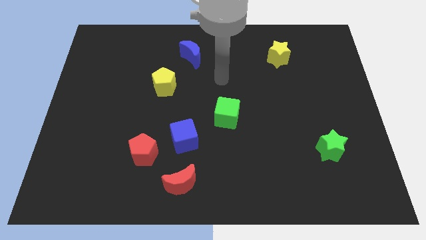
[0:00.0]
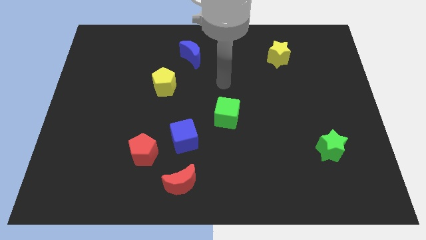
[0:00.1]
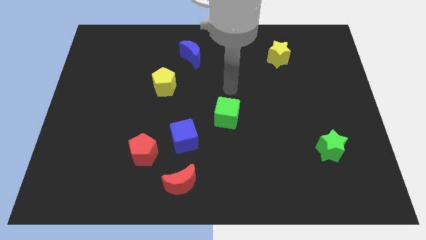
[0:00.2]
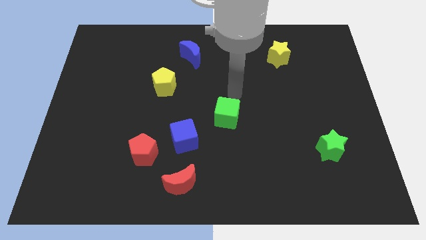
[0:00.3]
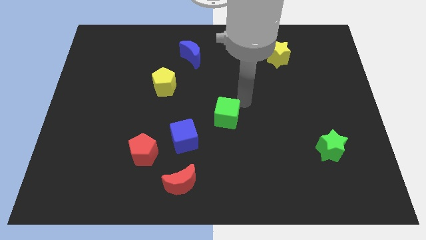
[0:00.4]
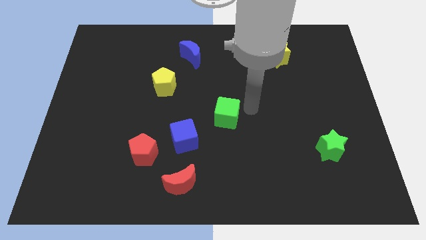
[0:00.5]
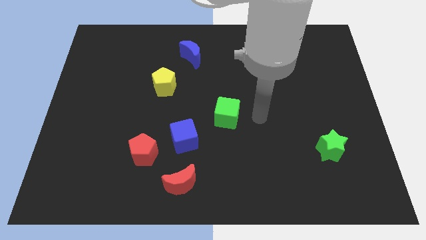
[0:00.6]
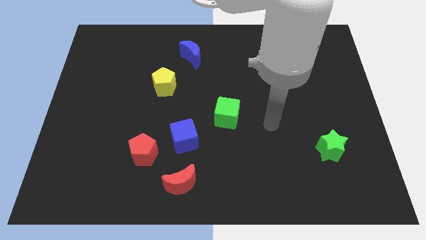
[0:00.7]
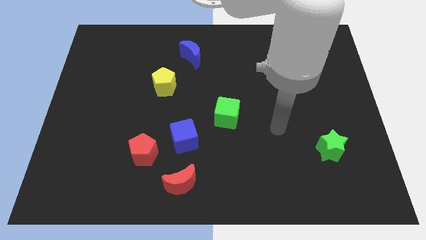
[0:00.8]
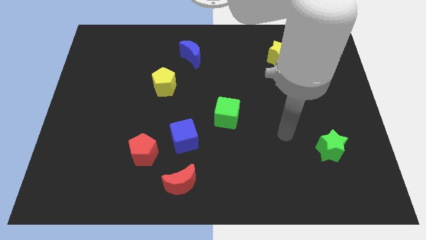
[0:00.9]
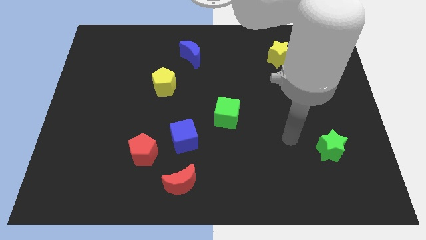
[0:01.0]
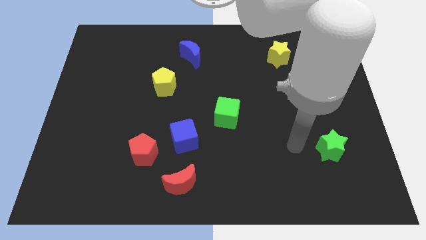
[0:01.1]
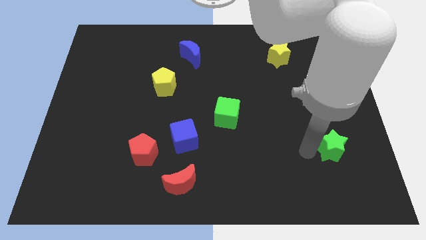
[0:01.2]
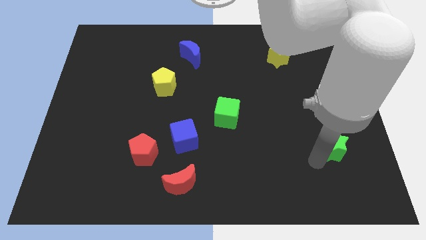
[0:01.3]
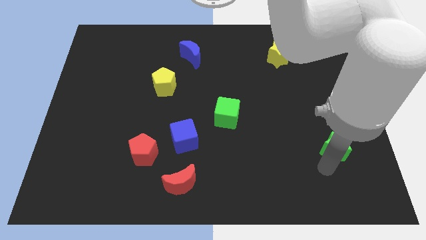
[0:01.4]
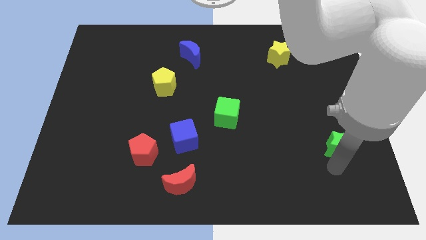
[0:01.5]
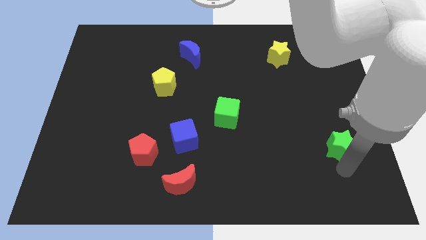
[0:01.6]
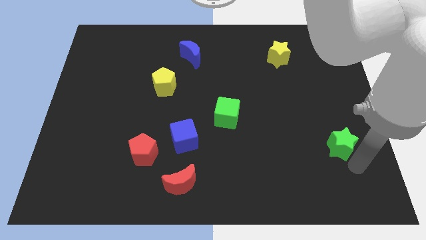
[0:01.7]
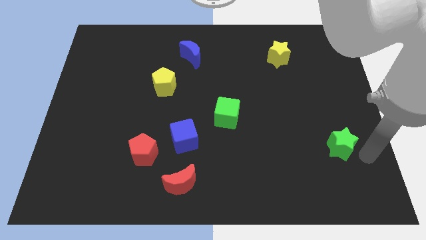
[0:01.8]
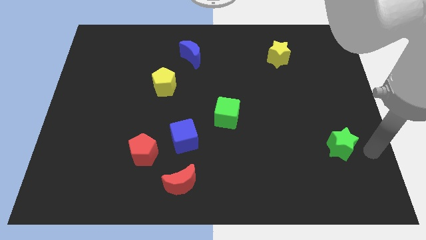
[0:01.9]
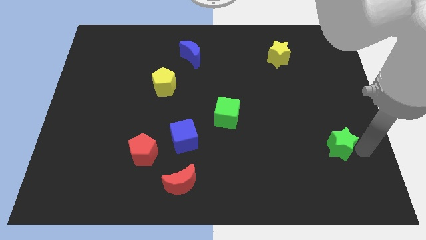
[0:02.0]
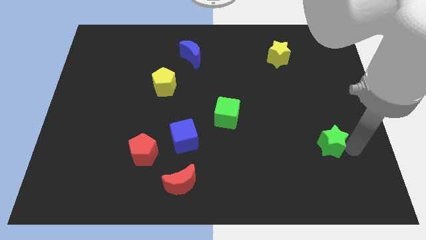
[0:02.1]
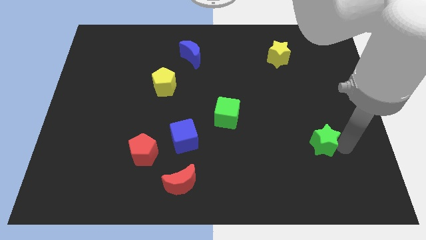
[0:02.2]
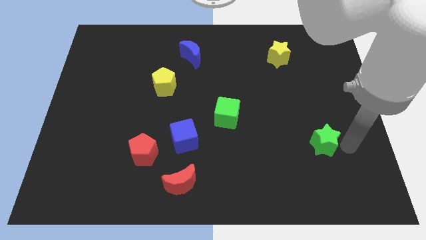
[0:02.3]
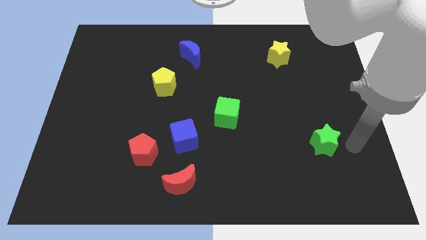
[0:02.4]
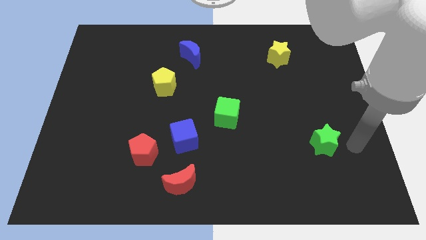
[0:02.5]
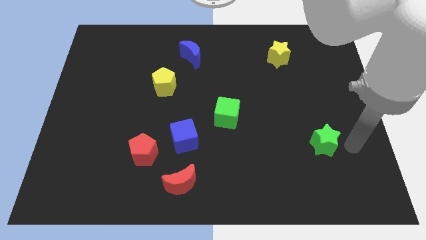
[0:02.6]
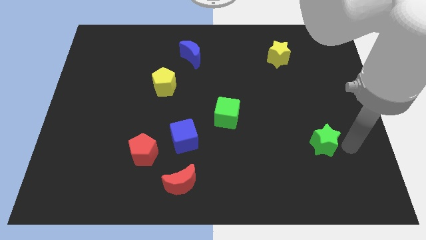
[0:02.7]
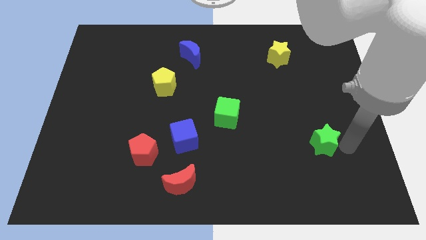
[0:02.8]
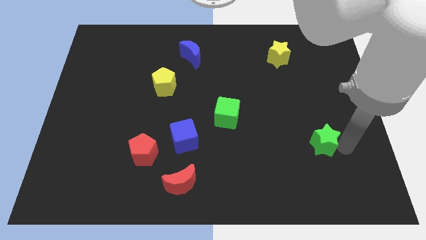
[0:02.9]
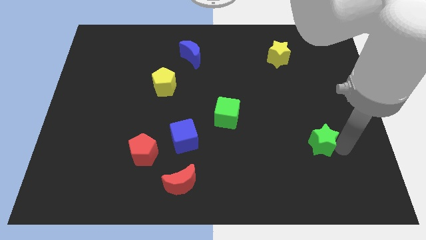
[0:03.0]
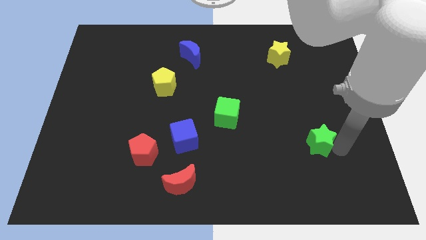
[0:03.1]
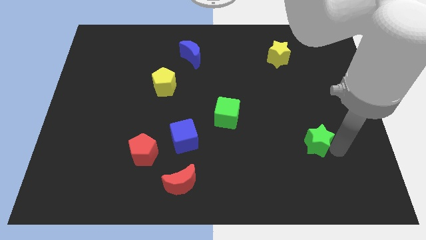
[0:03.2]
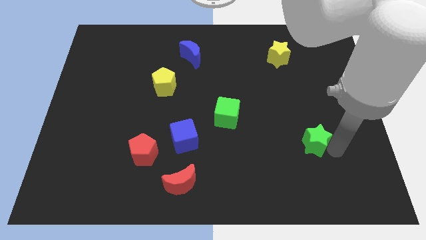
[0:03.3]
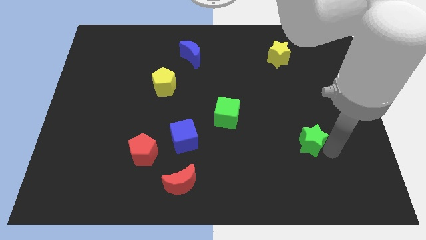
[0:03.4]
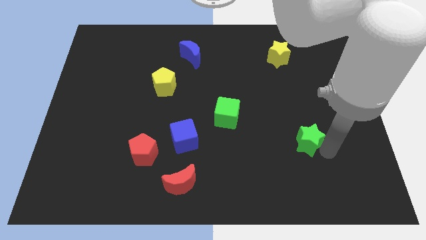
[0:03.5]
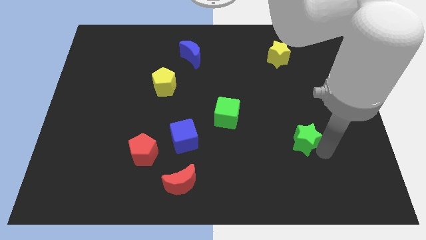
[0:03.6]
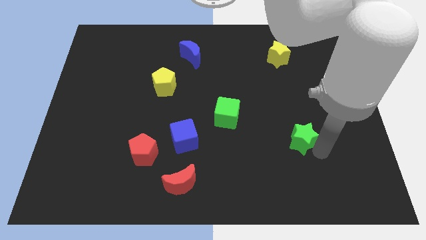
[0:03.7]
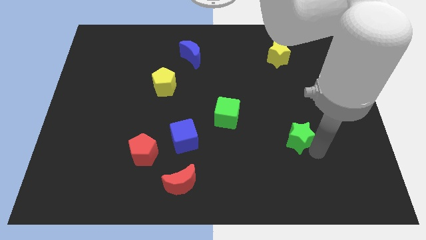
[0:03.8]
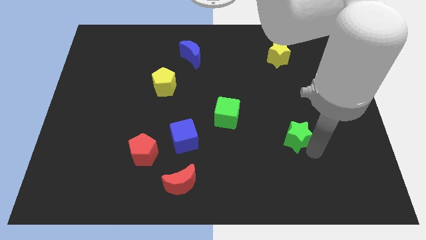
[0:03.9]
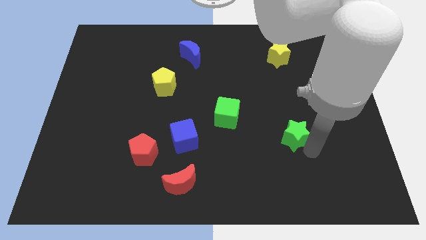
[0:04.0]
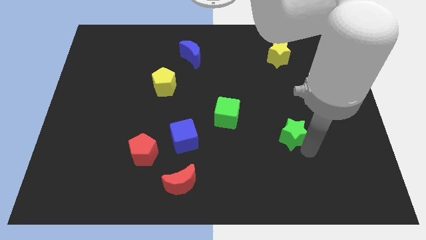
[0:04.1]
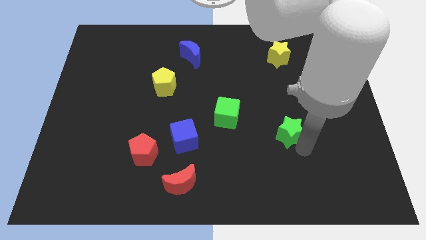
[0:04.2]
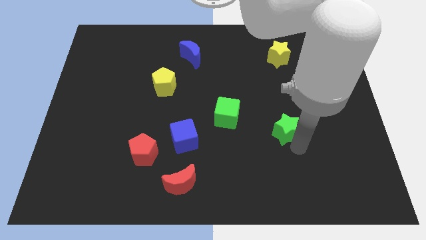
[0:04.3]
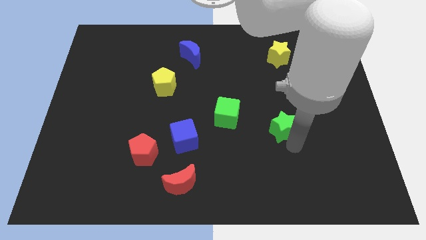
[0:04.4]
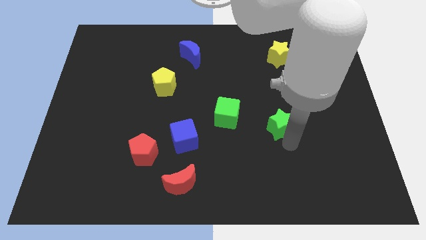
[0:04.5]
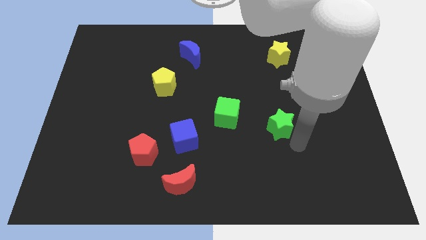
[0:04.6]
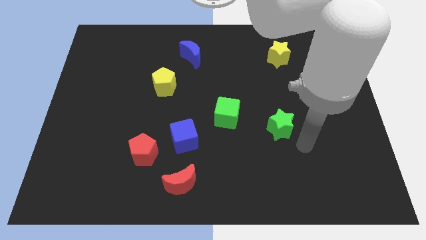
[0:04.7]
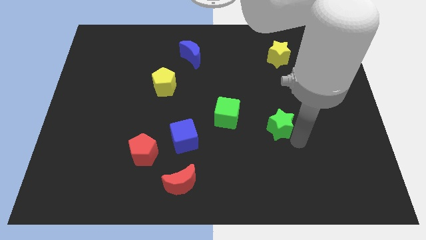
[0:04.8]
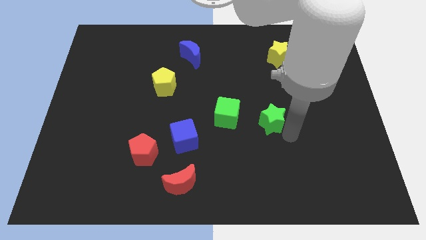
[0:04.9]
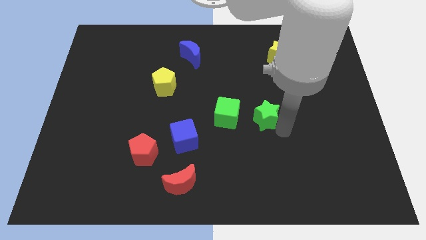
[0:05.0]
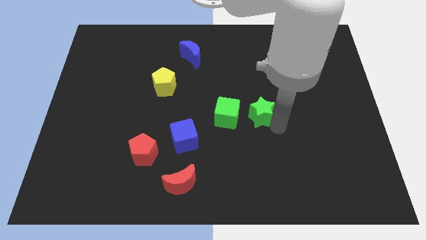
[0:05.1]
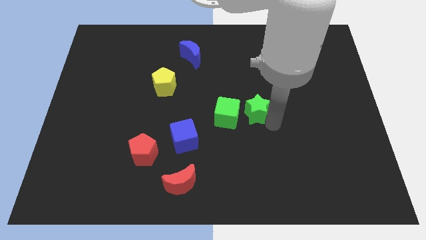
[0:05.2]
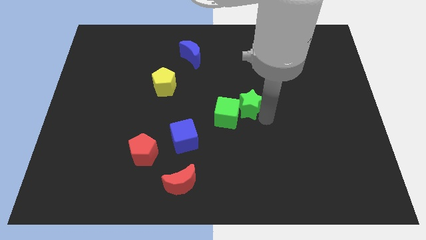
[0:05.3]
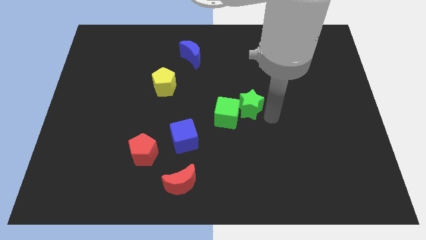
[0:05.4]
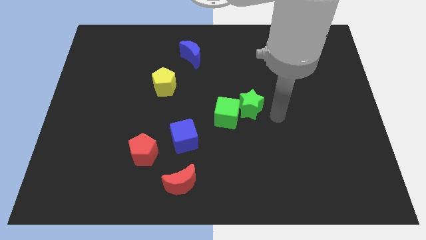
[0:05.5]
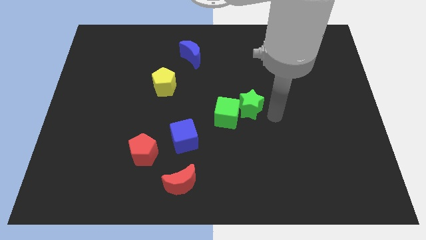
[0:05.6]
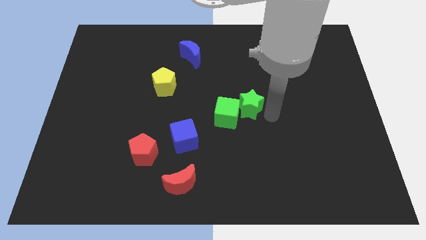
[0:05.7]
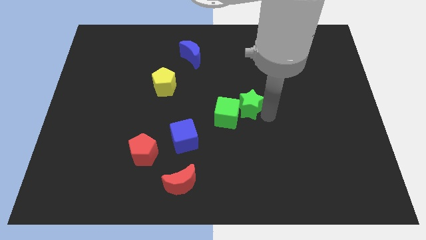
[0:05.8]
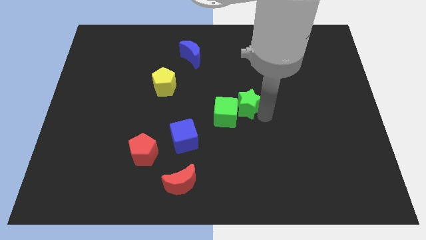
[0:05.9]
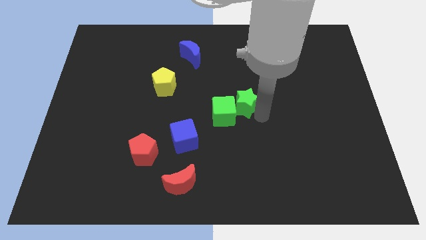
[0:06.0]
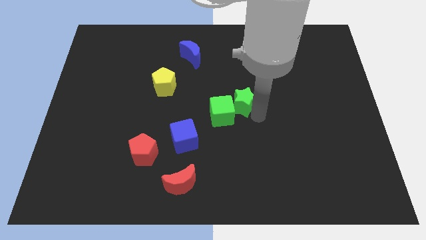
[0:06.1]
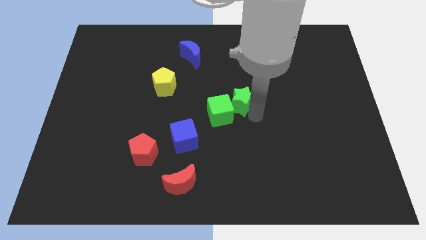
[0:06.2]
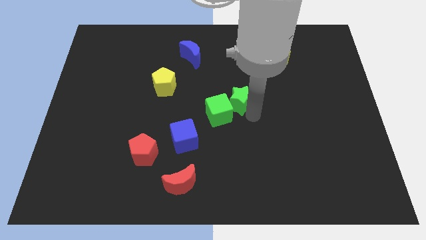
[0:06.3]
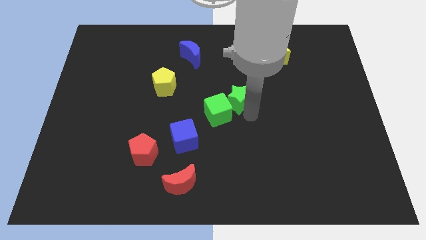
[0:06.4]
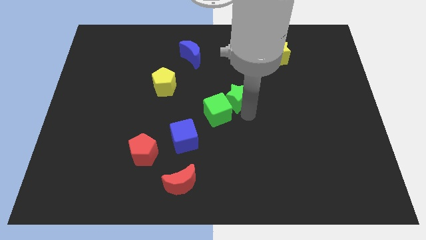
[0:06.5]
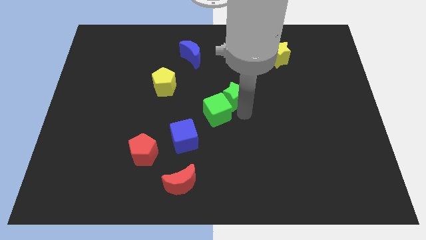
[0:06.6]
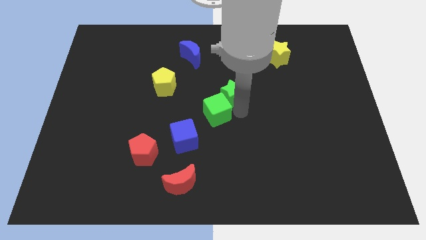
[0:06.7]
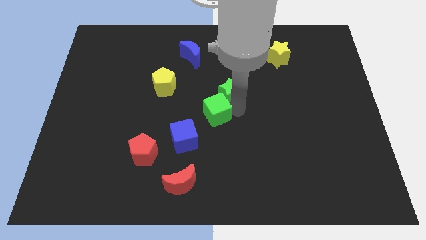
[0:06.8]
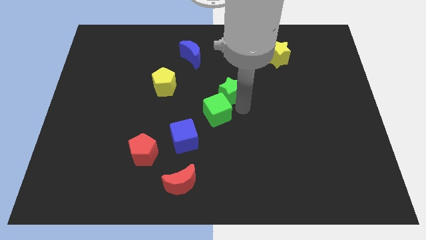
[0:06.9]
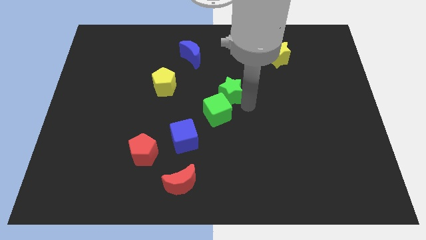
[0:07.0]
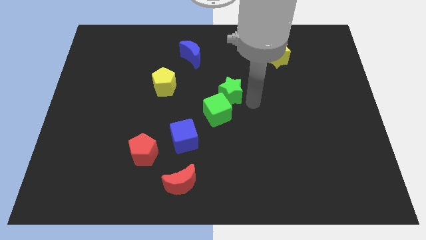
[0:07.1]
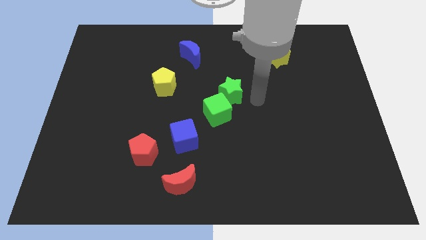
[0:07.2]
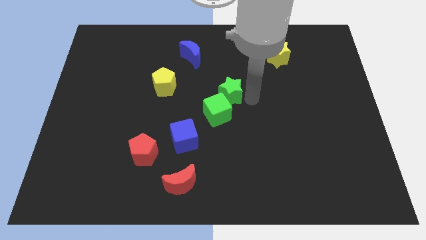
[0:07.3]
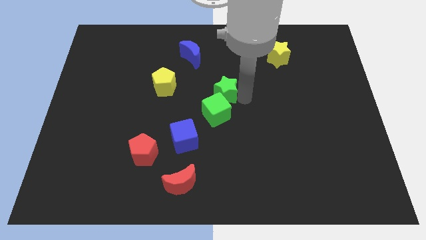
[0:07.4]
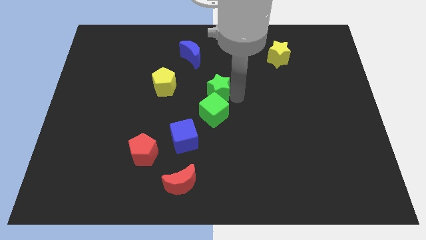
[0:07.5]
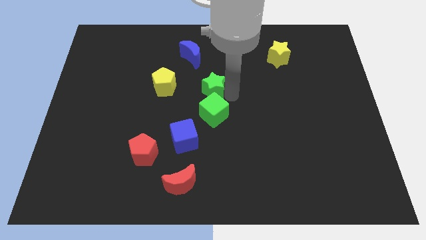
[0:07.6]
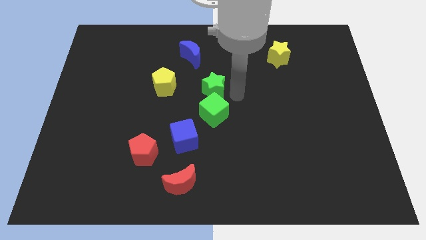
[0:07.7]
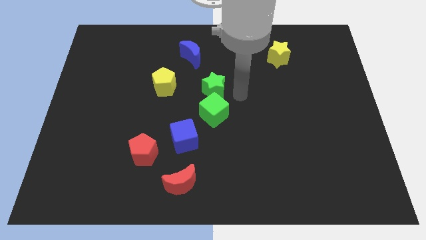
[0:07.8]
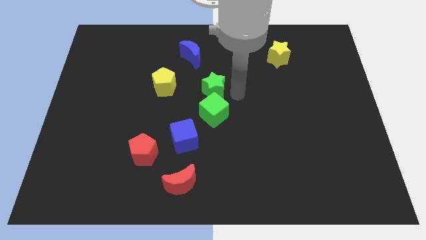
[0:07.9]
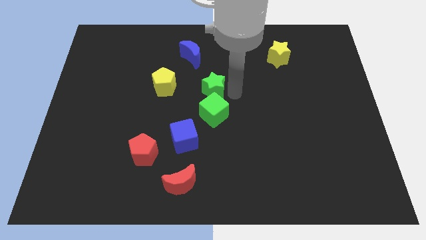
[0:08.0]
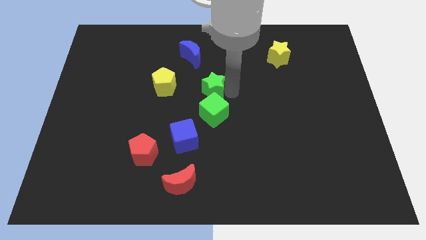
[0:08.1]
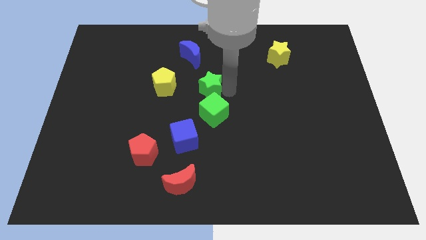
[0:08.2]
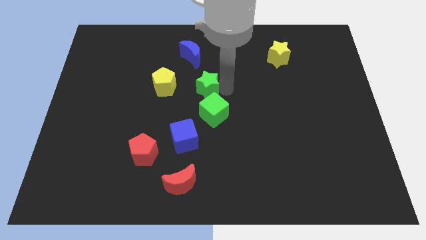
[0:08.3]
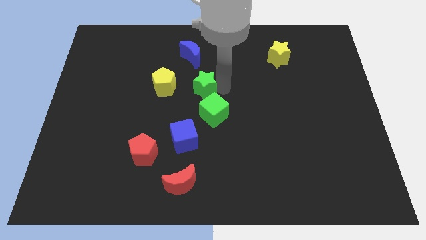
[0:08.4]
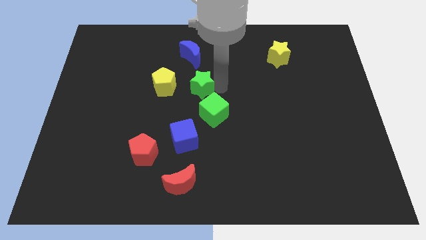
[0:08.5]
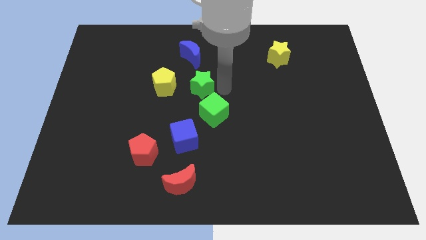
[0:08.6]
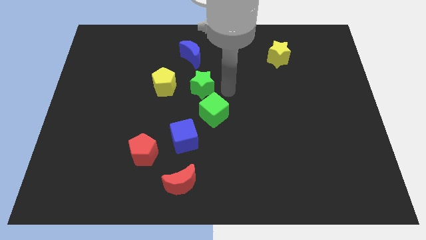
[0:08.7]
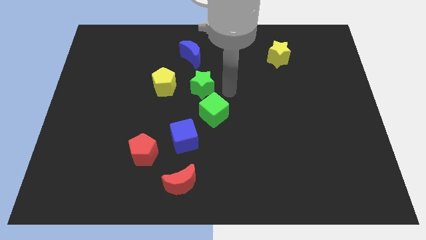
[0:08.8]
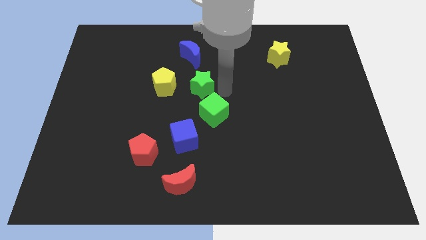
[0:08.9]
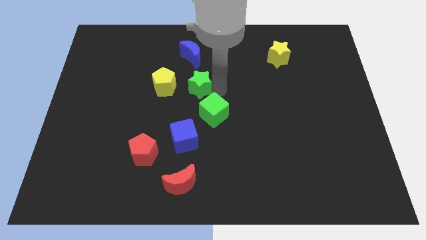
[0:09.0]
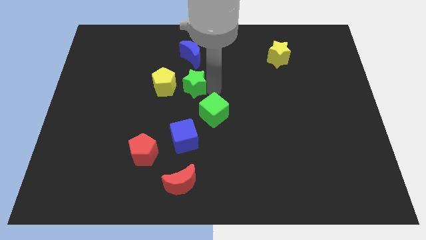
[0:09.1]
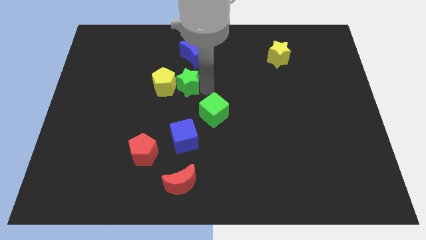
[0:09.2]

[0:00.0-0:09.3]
move the green star towards the yellow pentagon
